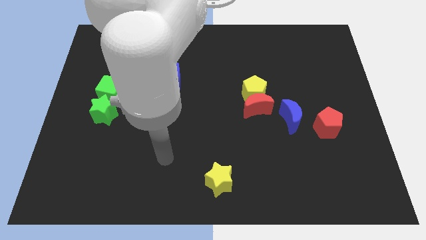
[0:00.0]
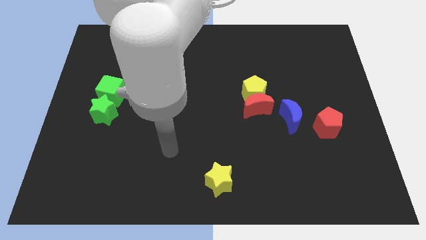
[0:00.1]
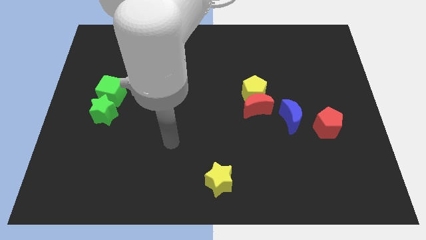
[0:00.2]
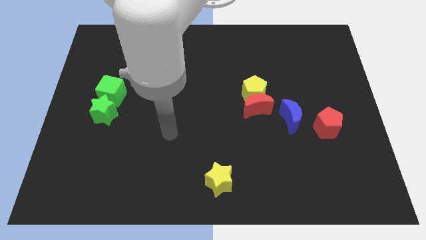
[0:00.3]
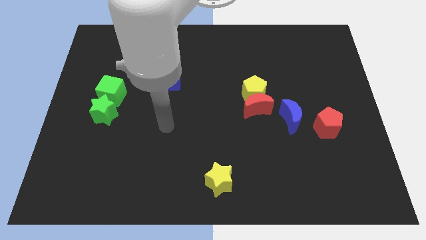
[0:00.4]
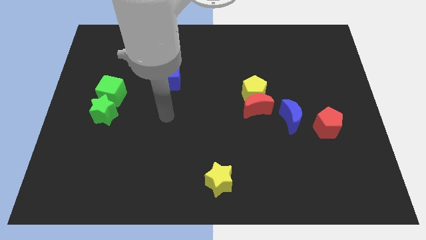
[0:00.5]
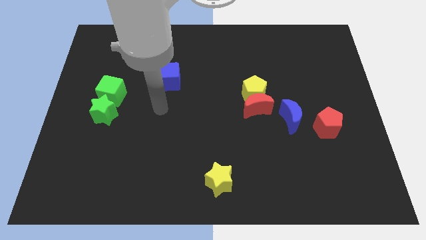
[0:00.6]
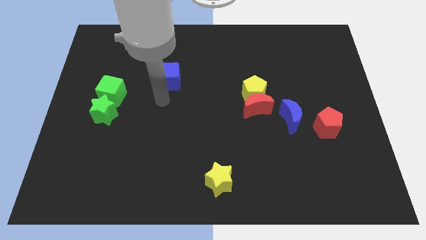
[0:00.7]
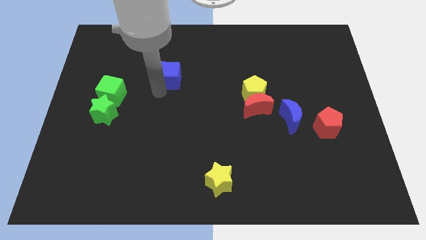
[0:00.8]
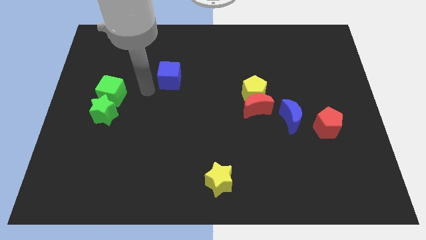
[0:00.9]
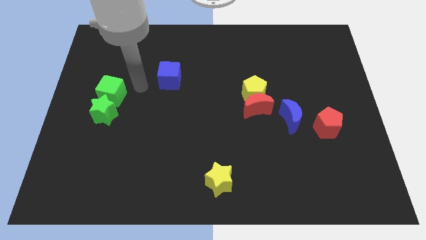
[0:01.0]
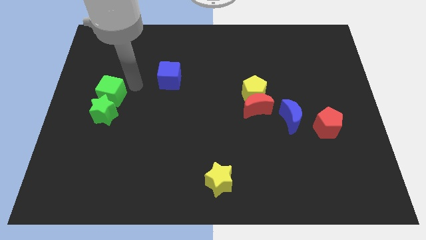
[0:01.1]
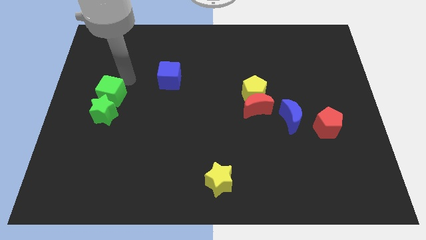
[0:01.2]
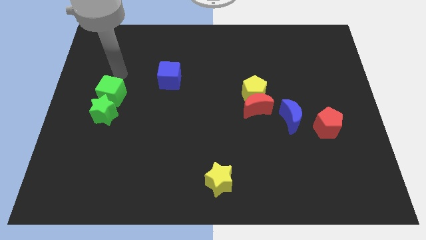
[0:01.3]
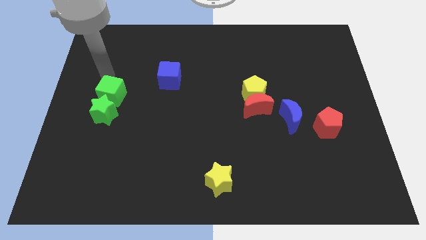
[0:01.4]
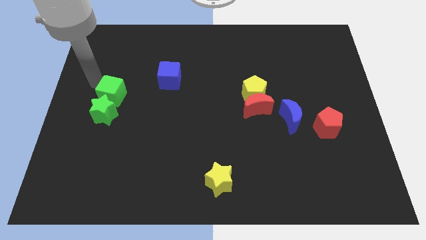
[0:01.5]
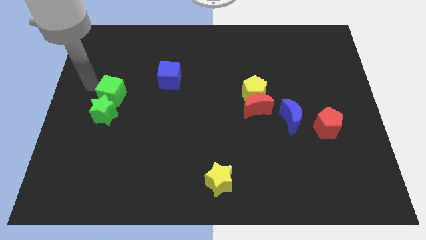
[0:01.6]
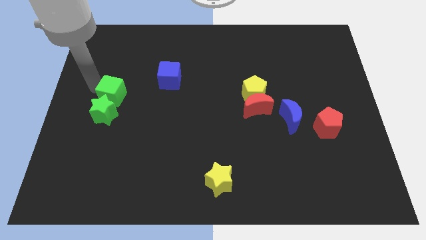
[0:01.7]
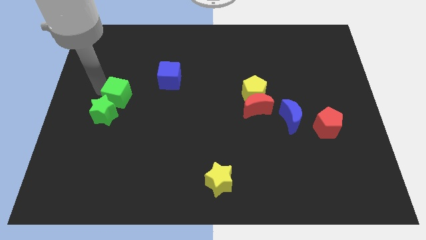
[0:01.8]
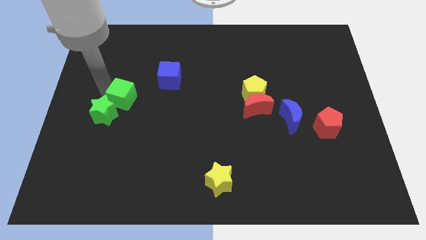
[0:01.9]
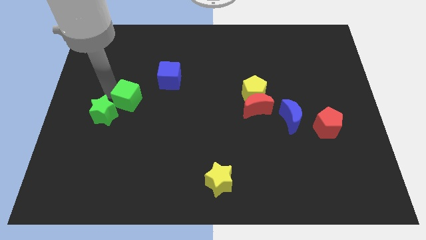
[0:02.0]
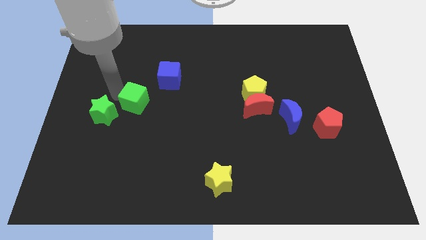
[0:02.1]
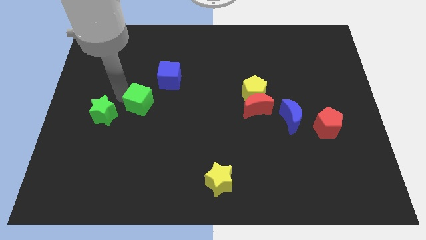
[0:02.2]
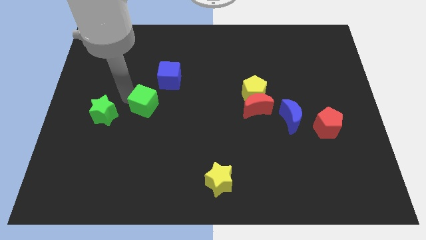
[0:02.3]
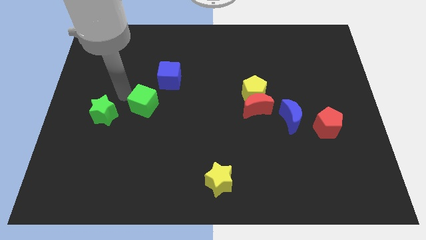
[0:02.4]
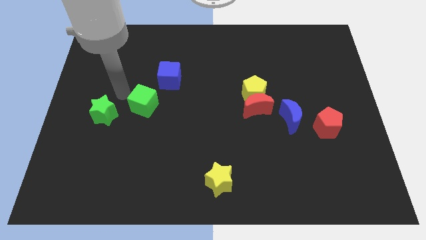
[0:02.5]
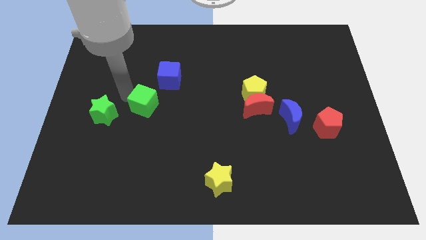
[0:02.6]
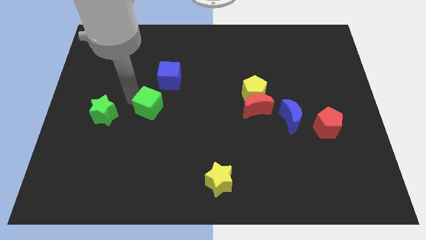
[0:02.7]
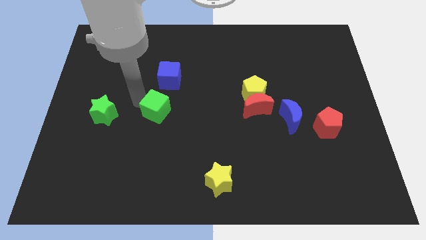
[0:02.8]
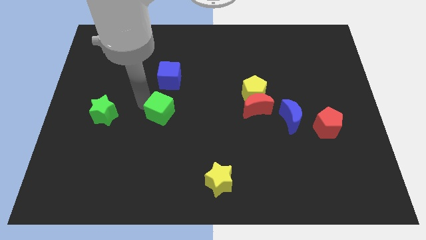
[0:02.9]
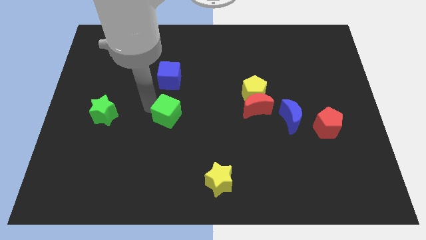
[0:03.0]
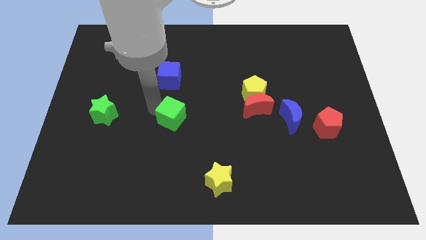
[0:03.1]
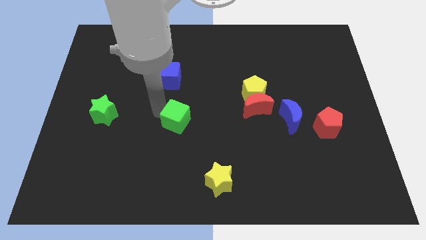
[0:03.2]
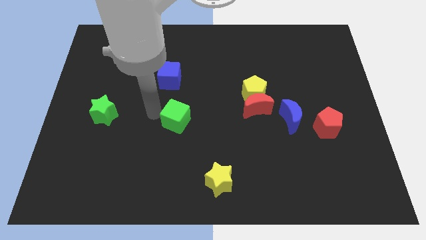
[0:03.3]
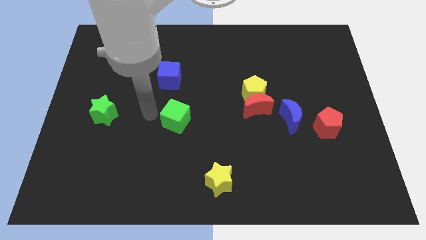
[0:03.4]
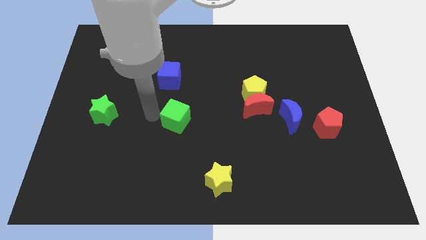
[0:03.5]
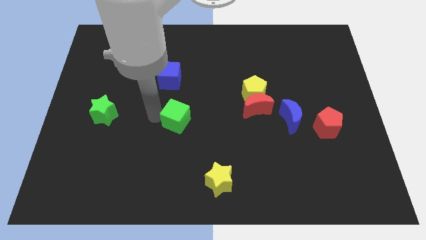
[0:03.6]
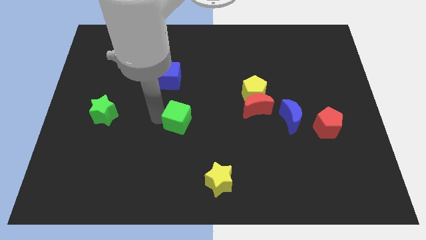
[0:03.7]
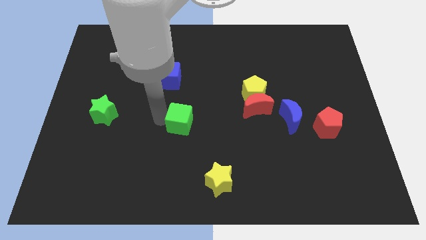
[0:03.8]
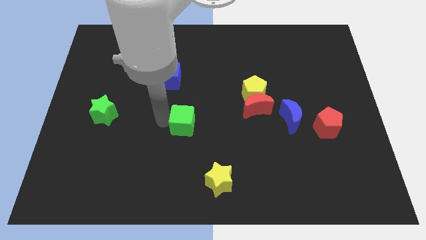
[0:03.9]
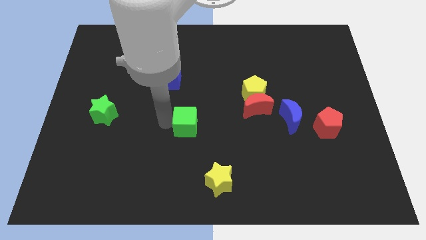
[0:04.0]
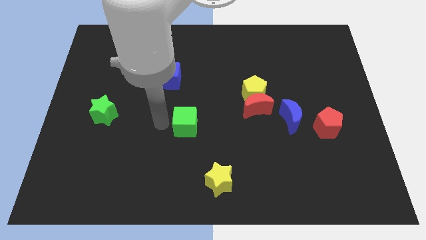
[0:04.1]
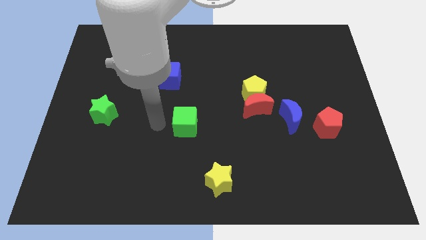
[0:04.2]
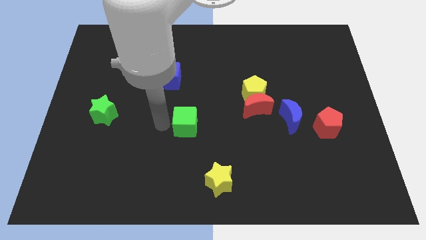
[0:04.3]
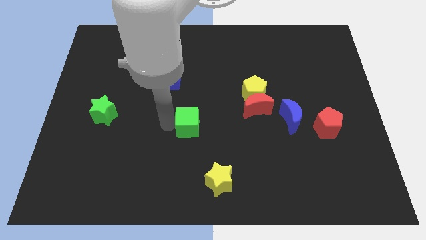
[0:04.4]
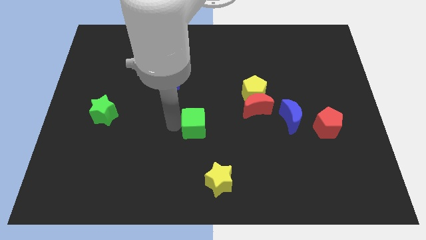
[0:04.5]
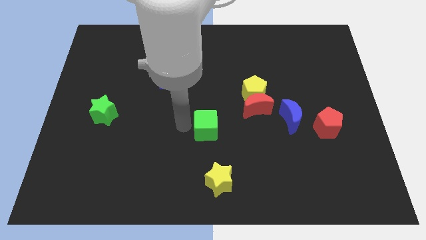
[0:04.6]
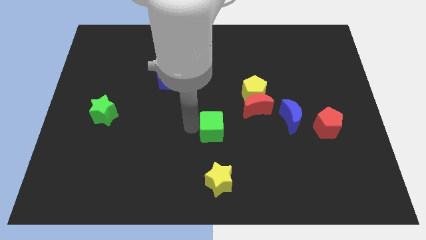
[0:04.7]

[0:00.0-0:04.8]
slide the green cube diagonally down and to the left of the red moon

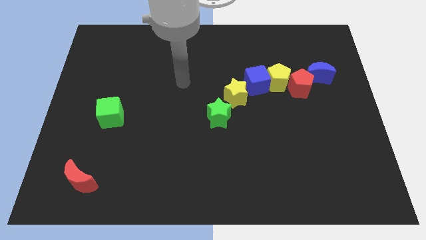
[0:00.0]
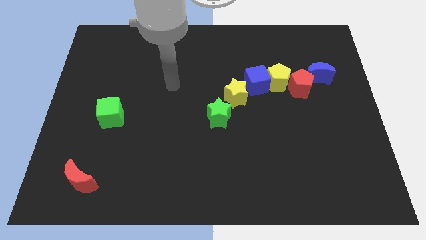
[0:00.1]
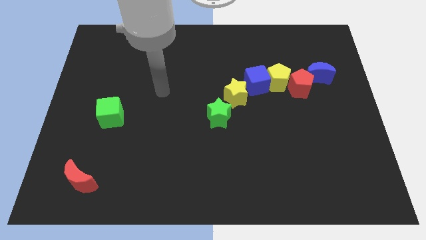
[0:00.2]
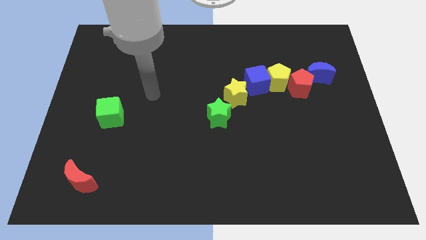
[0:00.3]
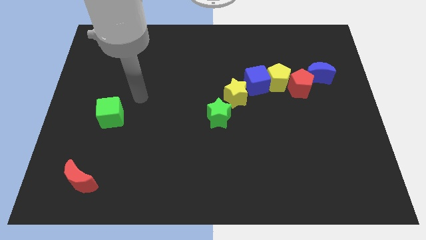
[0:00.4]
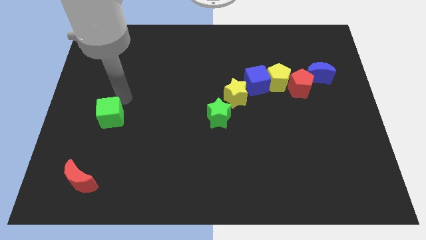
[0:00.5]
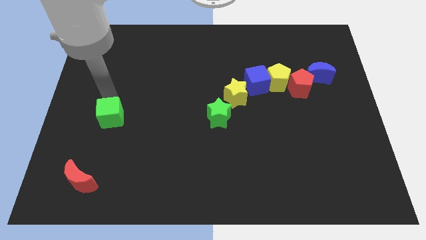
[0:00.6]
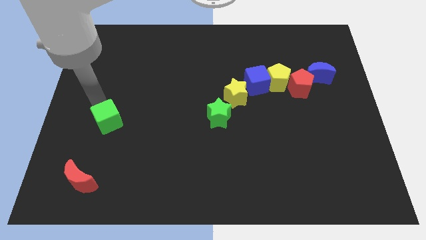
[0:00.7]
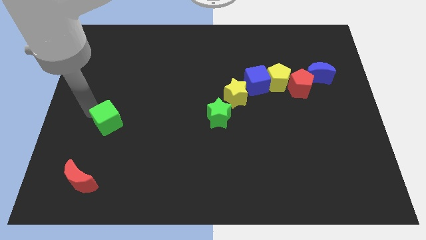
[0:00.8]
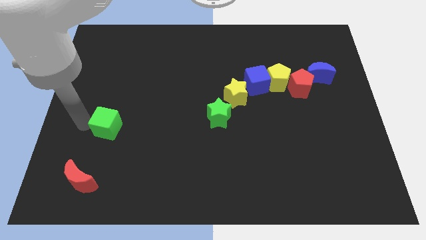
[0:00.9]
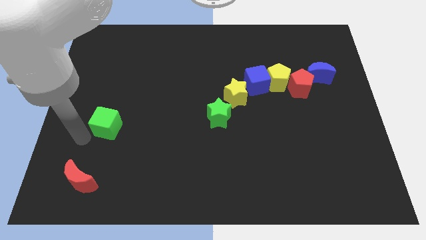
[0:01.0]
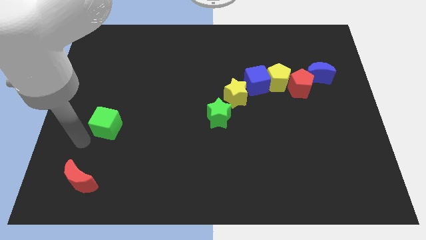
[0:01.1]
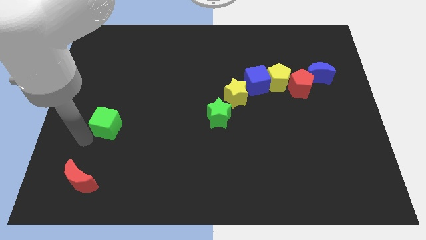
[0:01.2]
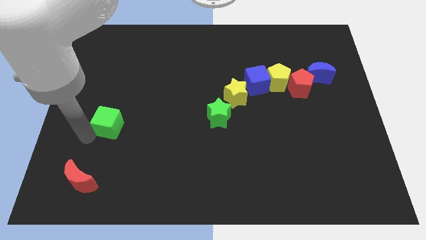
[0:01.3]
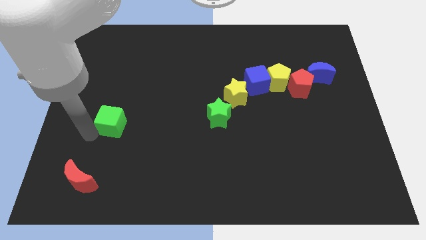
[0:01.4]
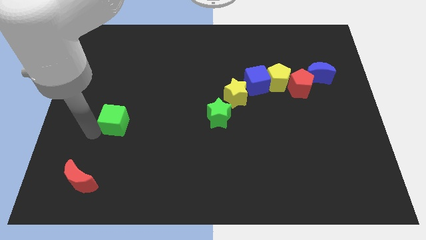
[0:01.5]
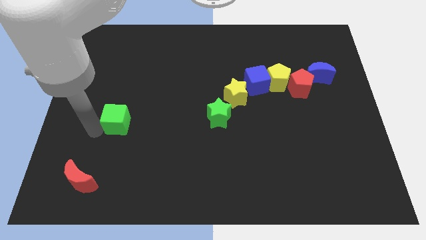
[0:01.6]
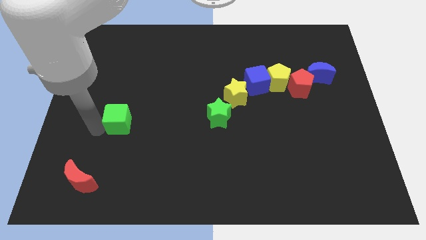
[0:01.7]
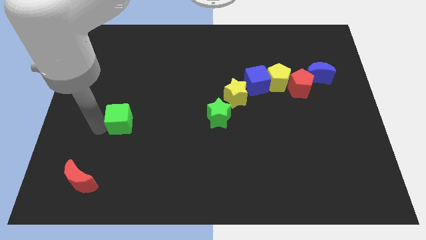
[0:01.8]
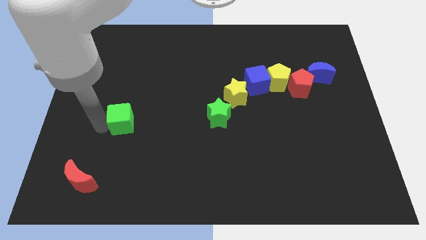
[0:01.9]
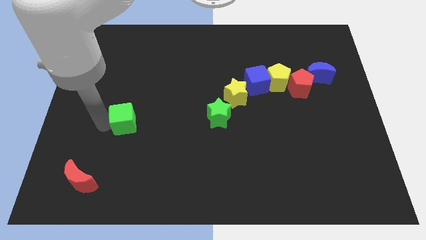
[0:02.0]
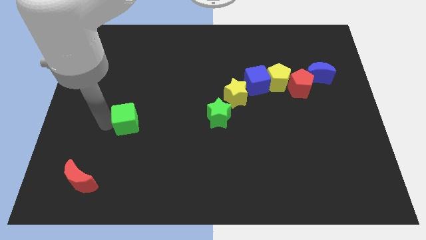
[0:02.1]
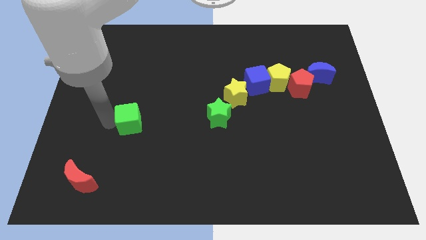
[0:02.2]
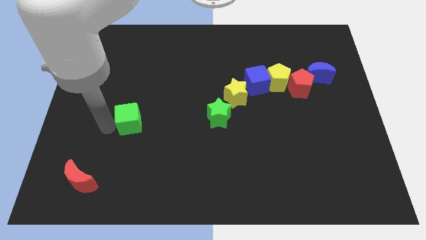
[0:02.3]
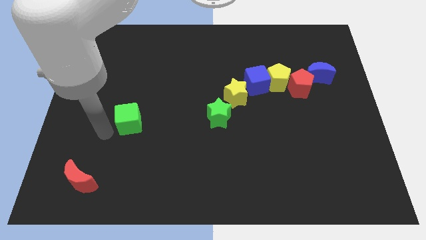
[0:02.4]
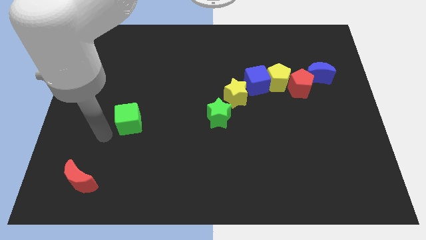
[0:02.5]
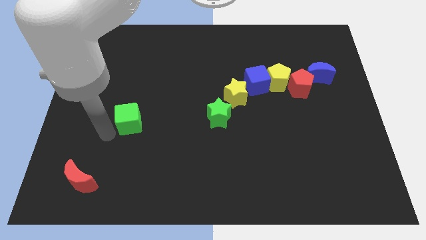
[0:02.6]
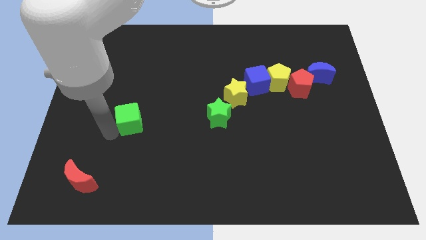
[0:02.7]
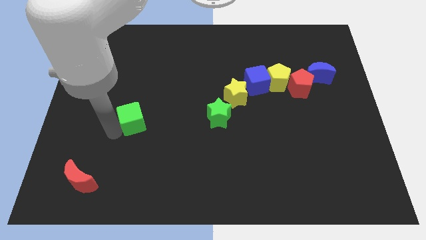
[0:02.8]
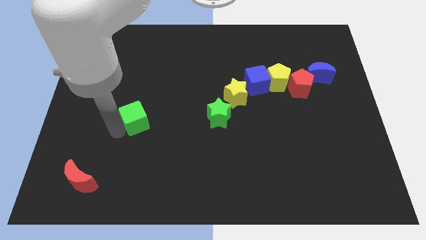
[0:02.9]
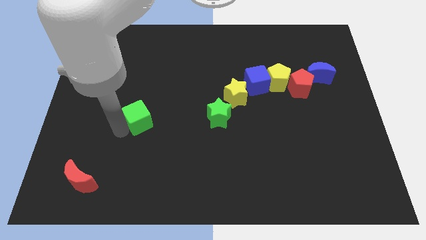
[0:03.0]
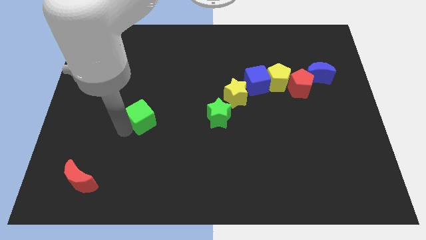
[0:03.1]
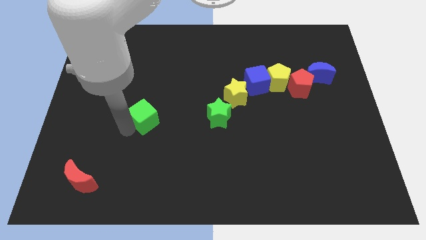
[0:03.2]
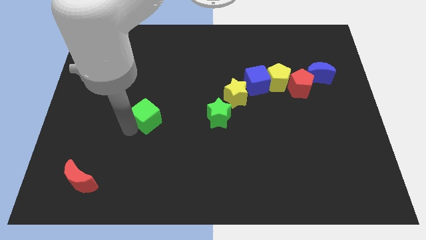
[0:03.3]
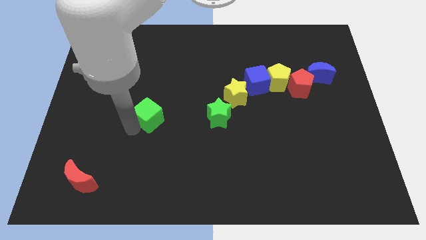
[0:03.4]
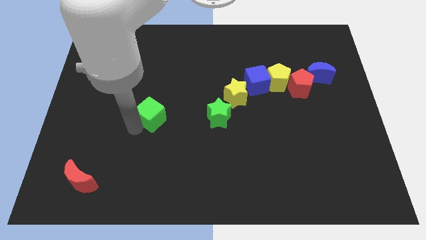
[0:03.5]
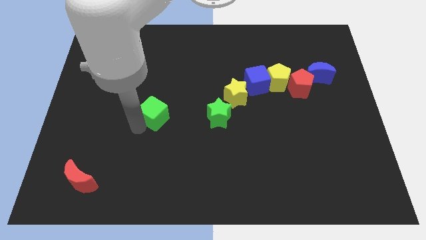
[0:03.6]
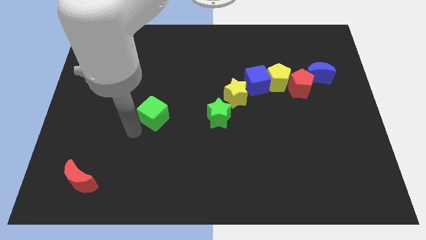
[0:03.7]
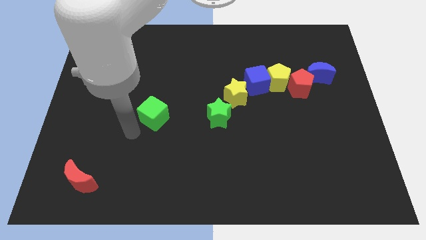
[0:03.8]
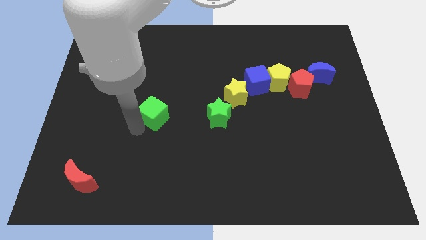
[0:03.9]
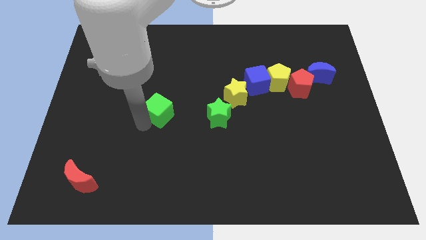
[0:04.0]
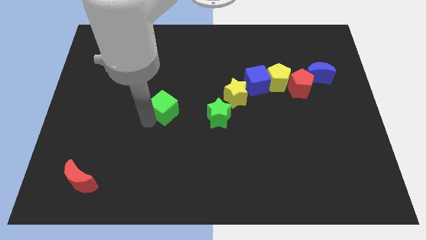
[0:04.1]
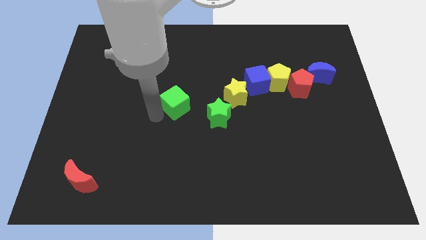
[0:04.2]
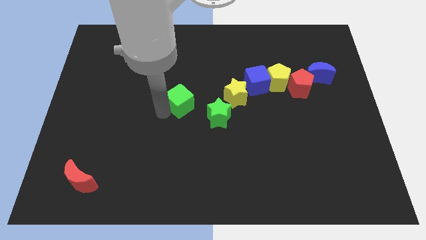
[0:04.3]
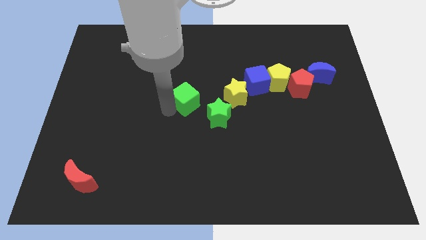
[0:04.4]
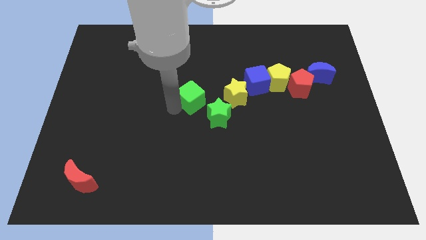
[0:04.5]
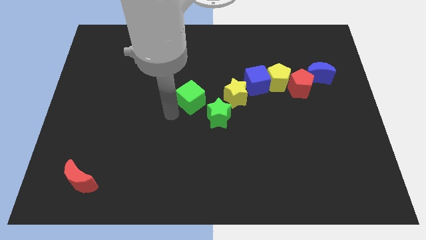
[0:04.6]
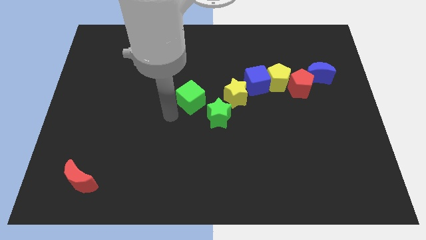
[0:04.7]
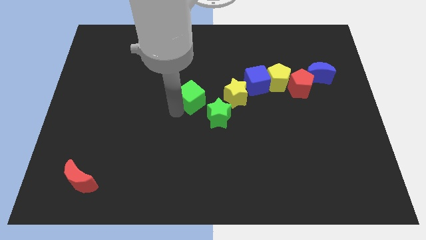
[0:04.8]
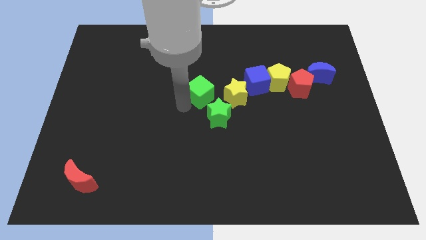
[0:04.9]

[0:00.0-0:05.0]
slide the green cube just left of the blue cube
